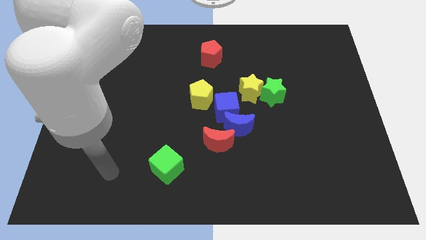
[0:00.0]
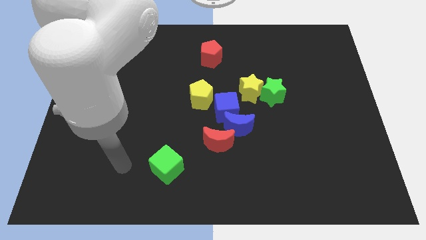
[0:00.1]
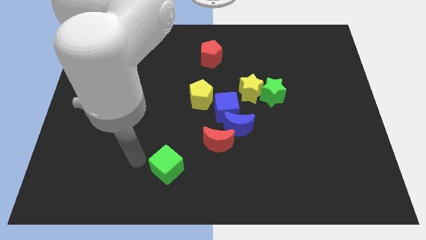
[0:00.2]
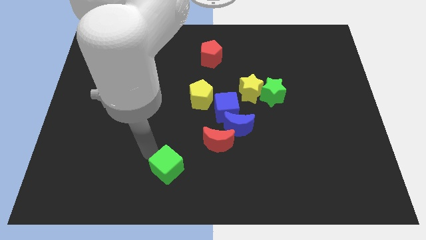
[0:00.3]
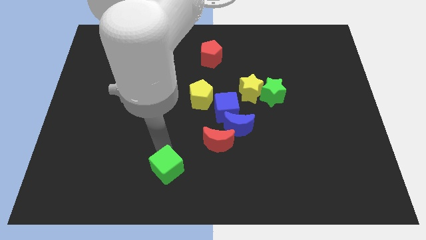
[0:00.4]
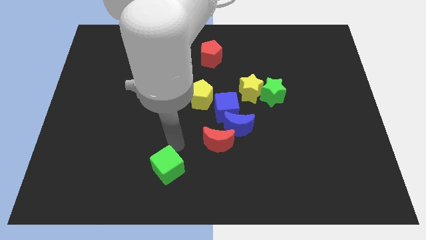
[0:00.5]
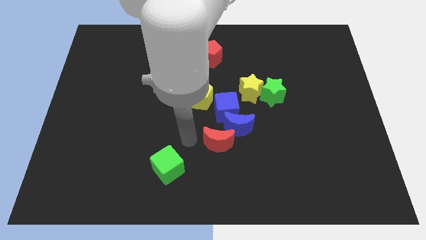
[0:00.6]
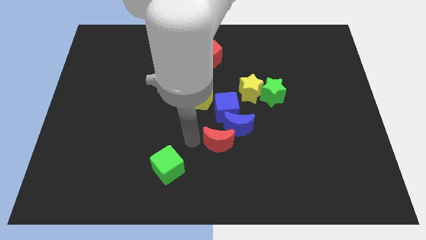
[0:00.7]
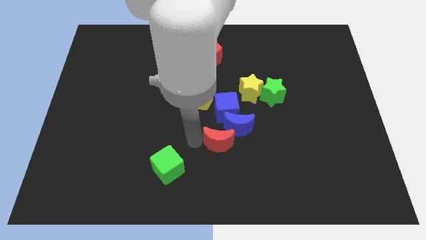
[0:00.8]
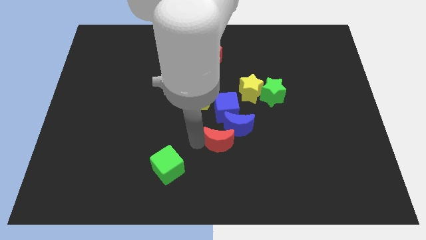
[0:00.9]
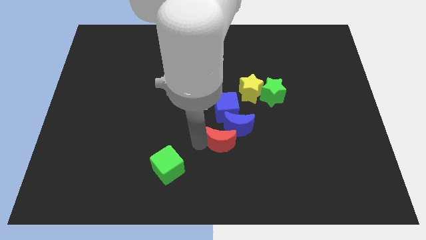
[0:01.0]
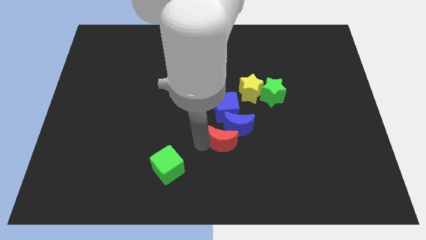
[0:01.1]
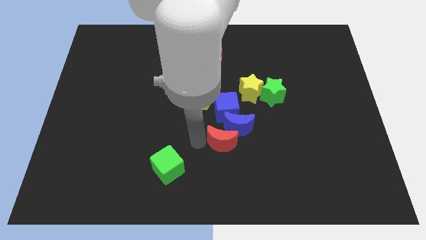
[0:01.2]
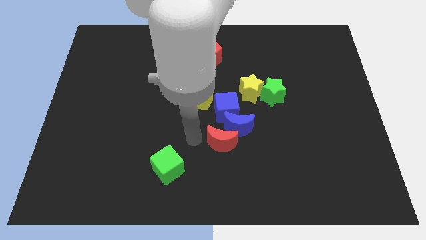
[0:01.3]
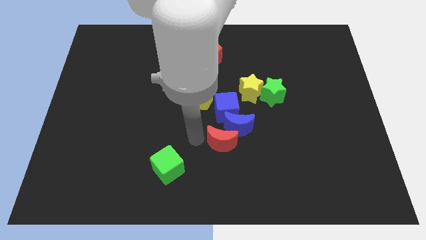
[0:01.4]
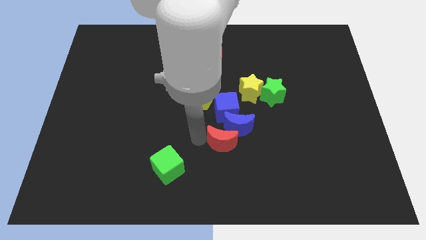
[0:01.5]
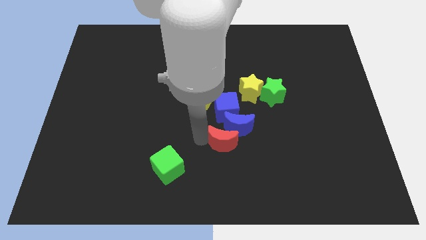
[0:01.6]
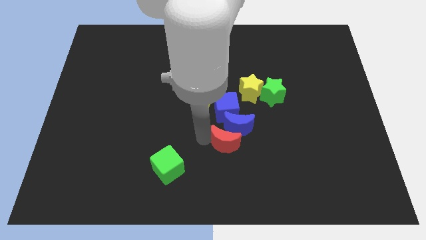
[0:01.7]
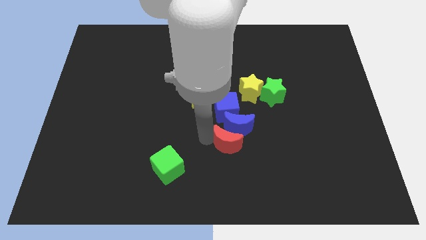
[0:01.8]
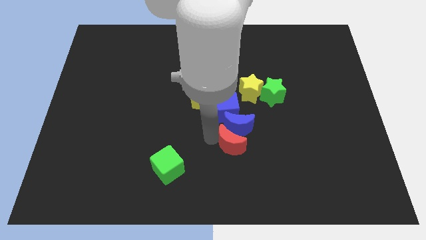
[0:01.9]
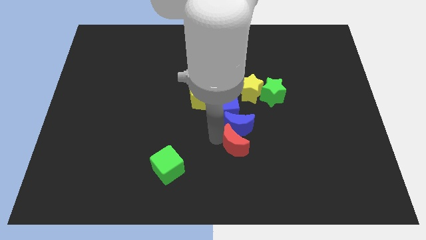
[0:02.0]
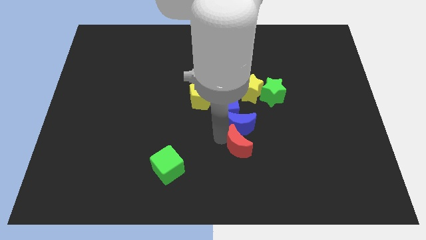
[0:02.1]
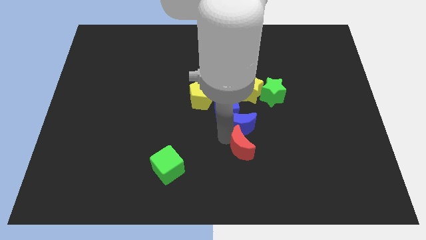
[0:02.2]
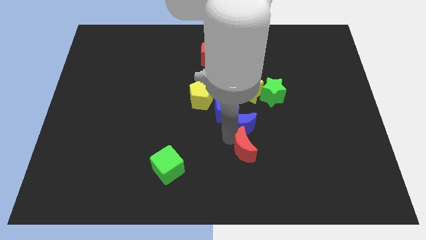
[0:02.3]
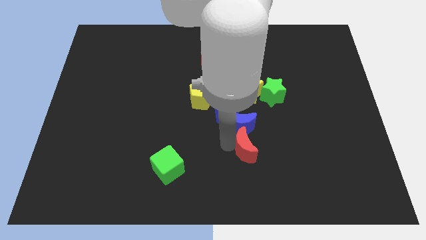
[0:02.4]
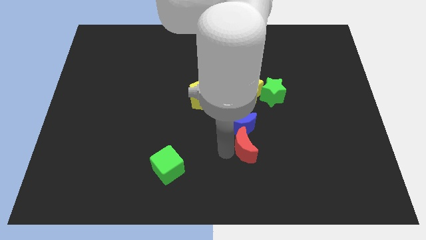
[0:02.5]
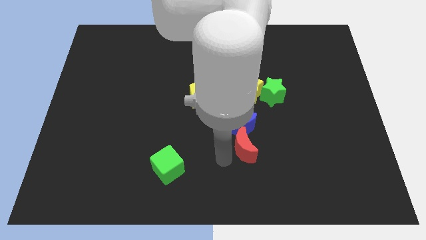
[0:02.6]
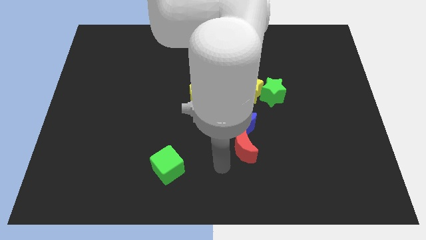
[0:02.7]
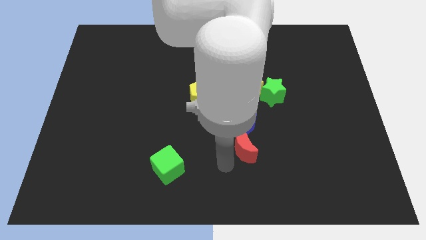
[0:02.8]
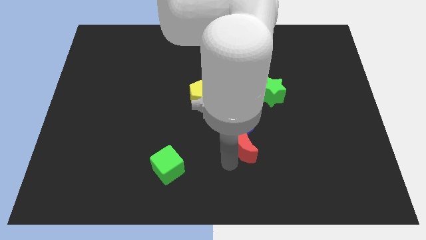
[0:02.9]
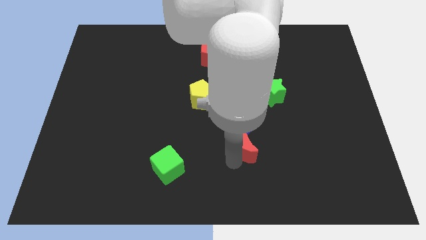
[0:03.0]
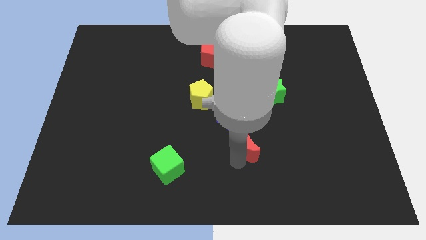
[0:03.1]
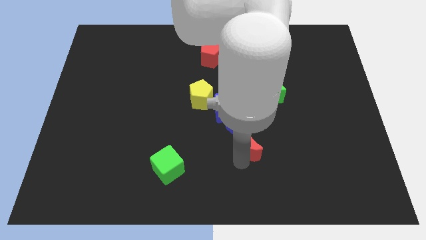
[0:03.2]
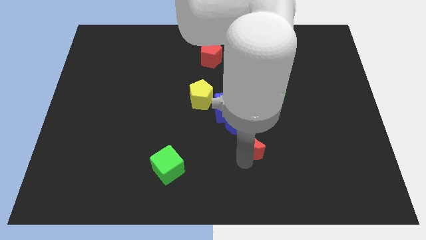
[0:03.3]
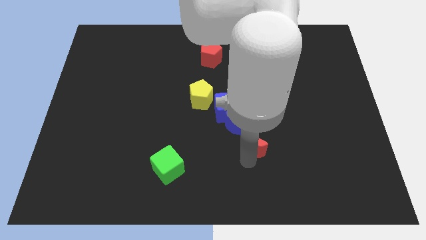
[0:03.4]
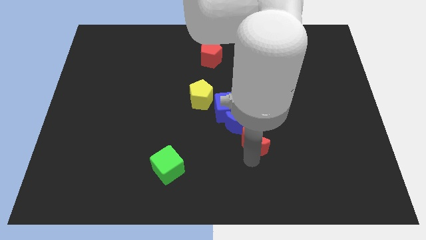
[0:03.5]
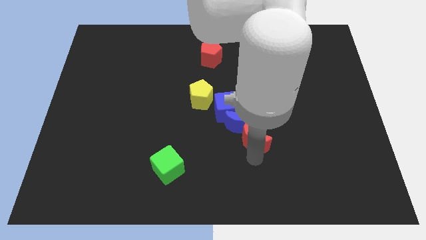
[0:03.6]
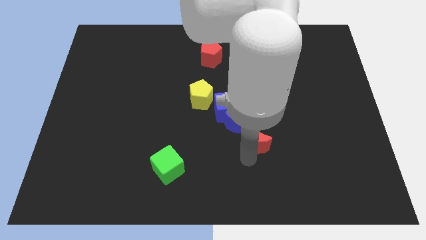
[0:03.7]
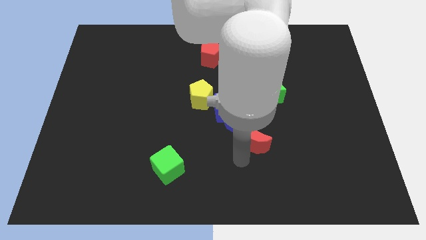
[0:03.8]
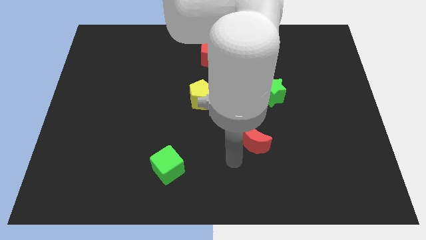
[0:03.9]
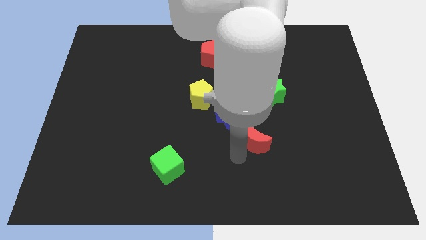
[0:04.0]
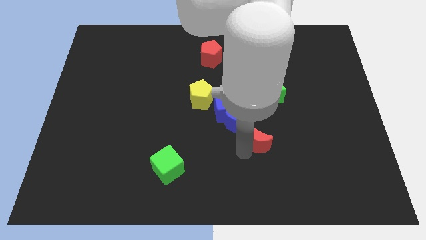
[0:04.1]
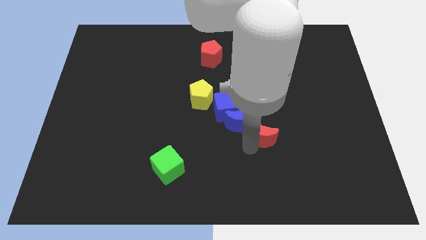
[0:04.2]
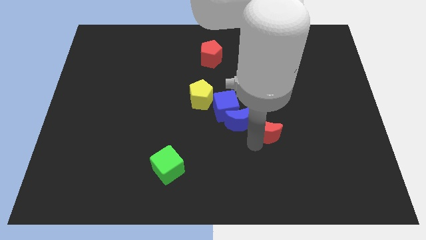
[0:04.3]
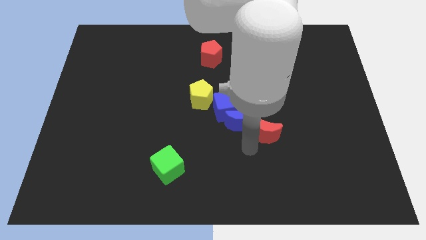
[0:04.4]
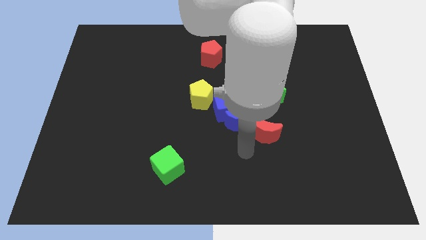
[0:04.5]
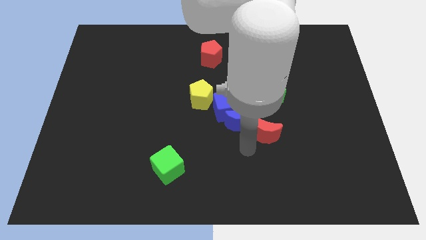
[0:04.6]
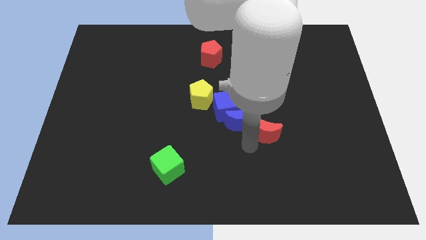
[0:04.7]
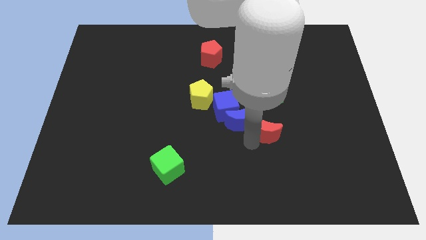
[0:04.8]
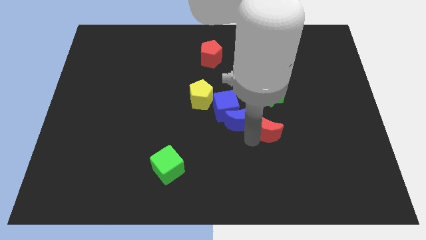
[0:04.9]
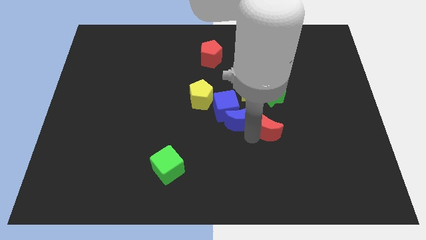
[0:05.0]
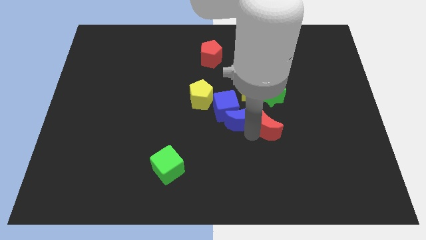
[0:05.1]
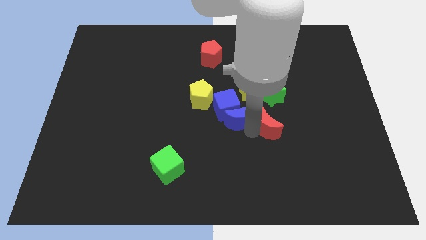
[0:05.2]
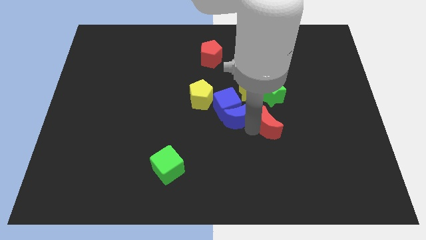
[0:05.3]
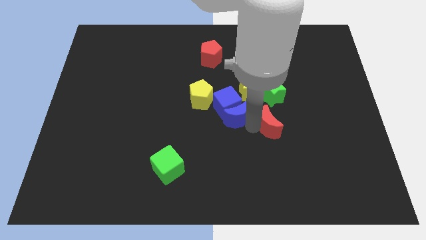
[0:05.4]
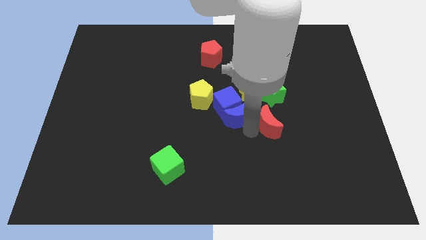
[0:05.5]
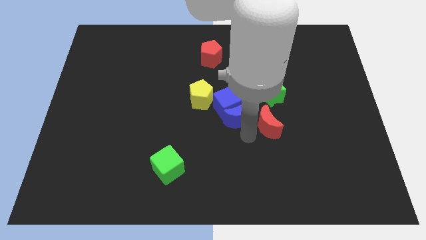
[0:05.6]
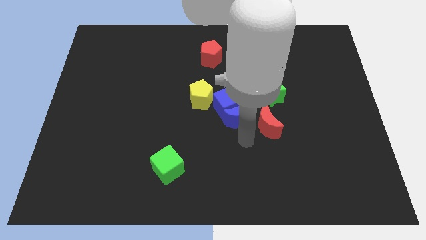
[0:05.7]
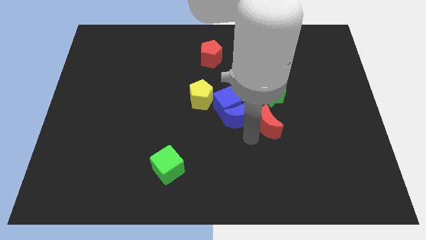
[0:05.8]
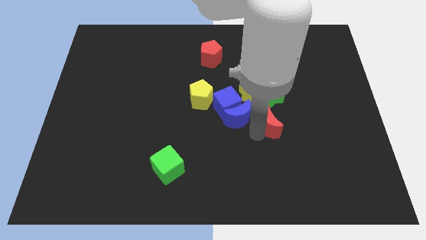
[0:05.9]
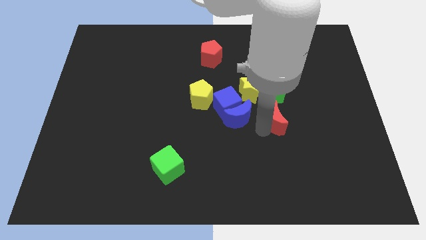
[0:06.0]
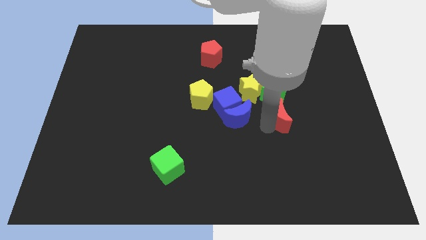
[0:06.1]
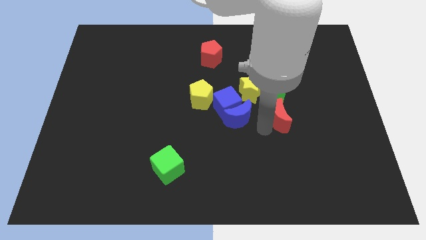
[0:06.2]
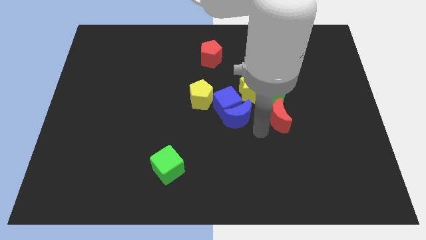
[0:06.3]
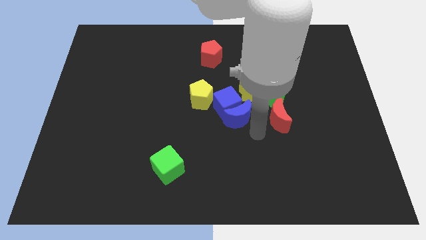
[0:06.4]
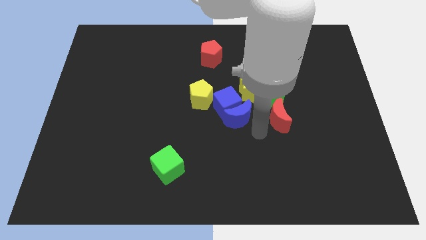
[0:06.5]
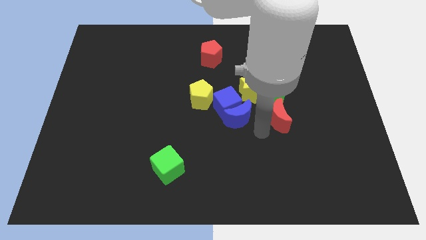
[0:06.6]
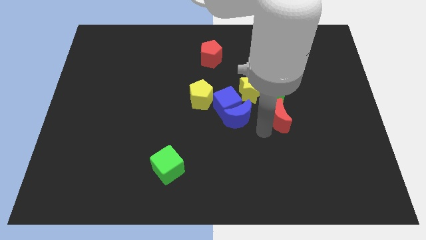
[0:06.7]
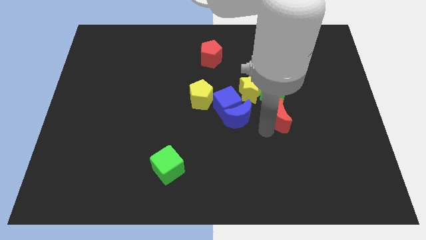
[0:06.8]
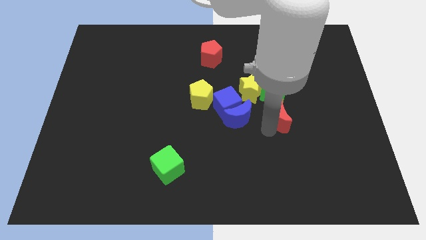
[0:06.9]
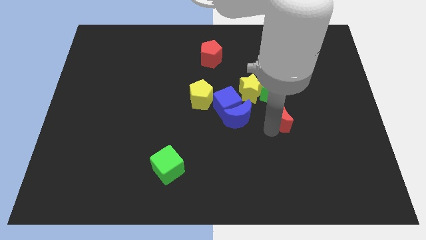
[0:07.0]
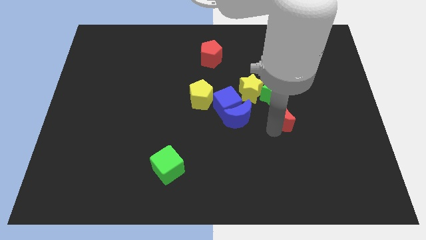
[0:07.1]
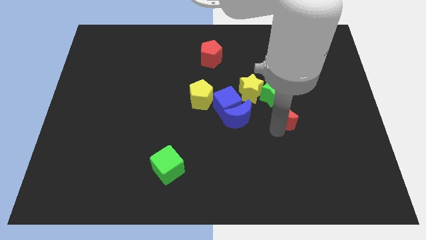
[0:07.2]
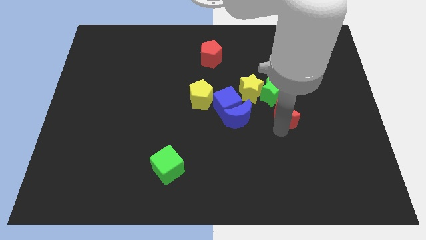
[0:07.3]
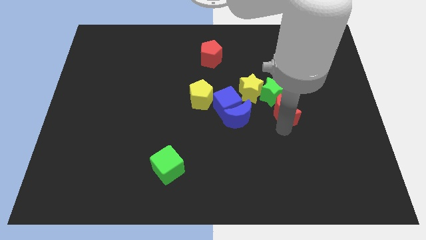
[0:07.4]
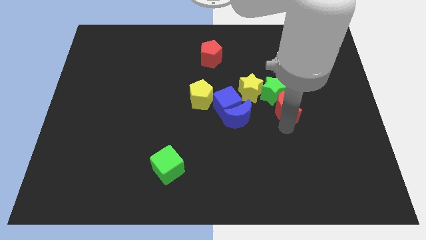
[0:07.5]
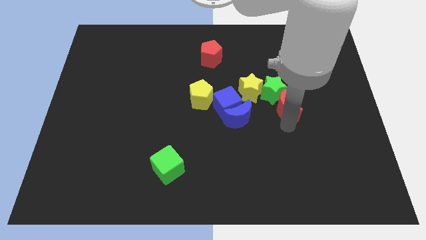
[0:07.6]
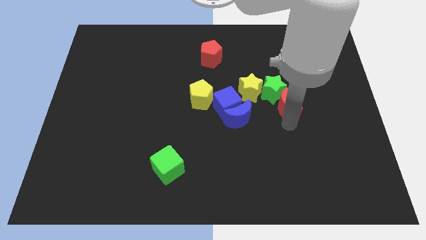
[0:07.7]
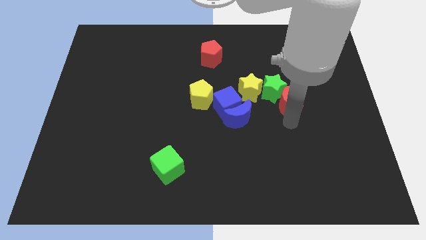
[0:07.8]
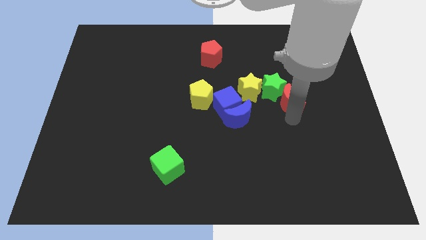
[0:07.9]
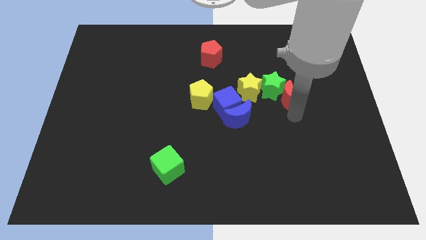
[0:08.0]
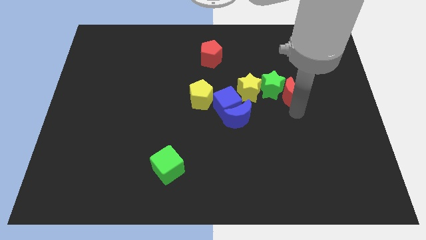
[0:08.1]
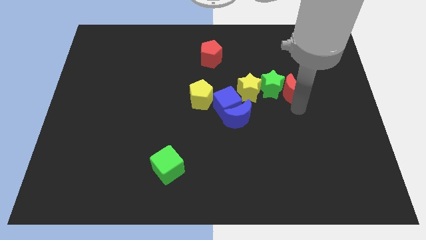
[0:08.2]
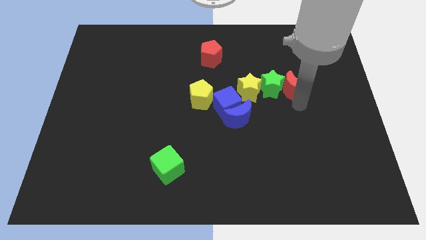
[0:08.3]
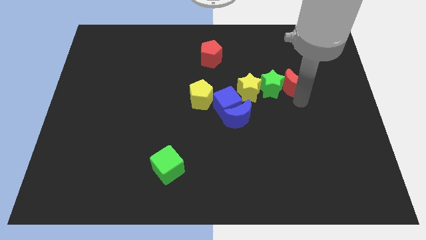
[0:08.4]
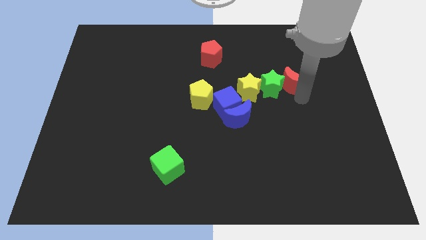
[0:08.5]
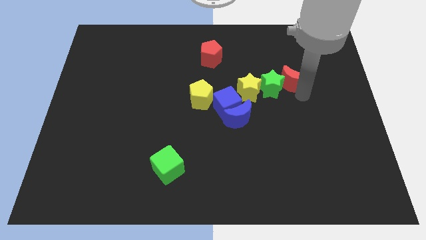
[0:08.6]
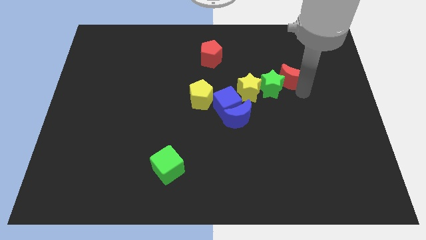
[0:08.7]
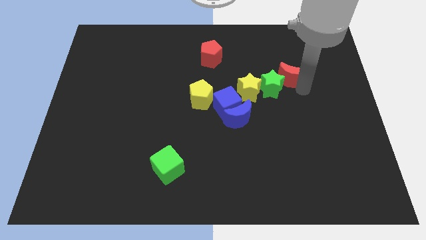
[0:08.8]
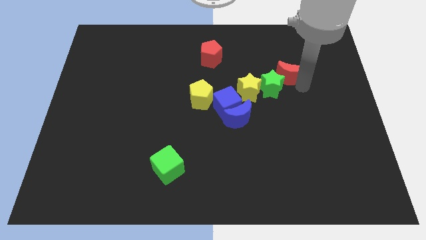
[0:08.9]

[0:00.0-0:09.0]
move the red moon to the top of the green star
